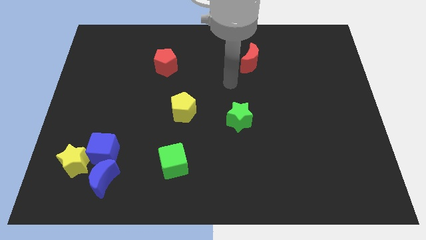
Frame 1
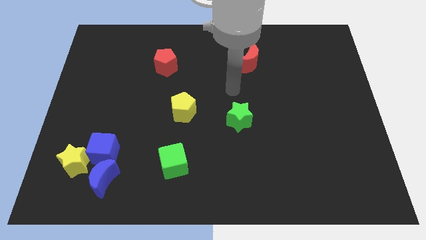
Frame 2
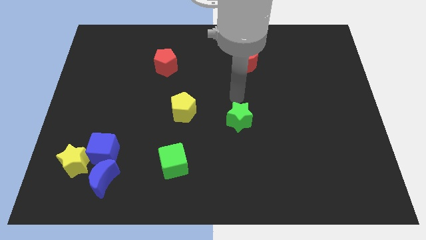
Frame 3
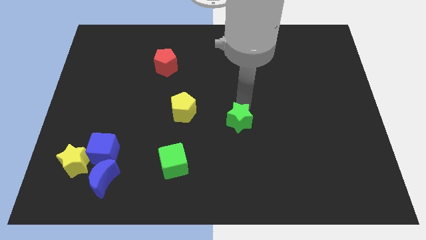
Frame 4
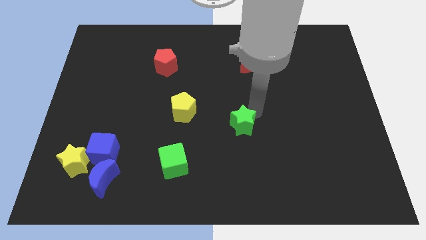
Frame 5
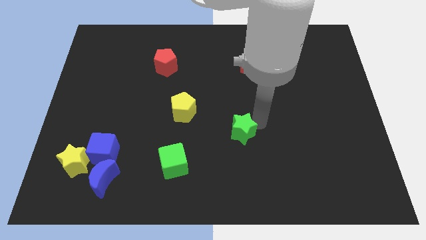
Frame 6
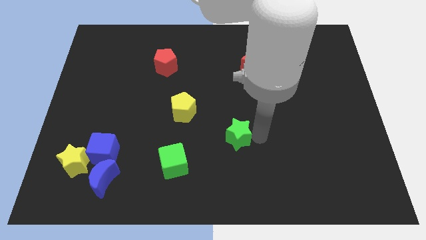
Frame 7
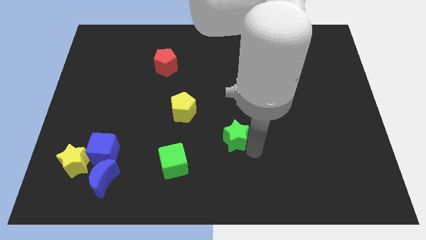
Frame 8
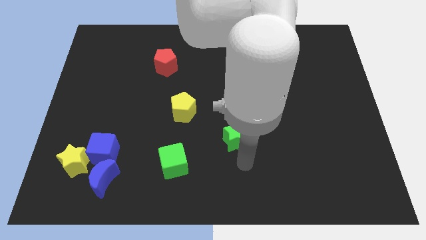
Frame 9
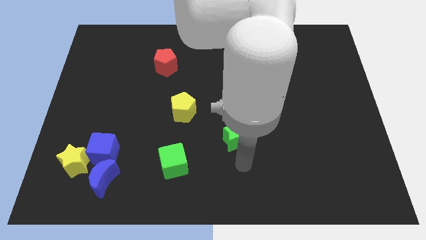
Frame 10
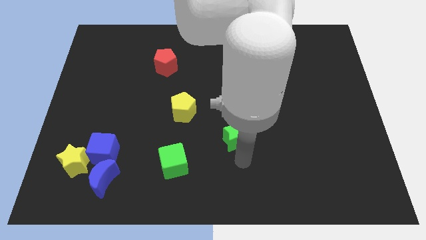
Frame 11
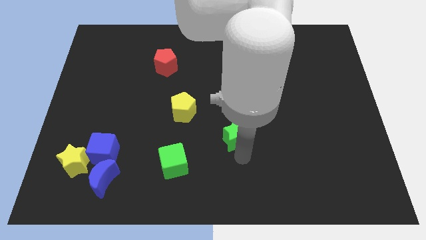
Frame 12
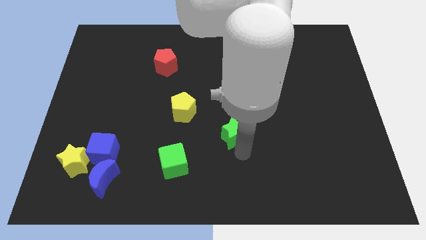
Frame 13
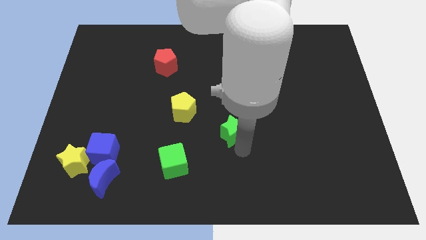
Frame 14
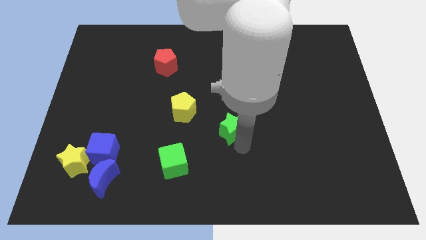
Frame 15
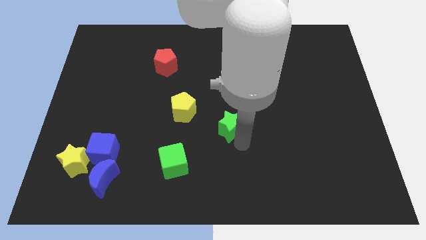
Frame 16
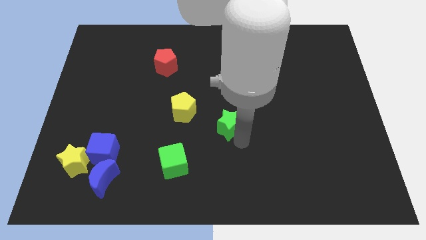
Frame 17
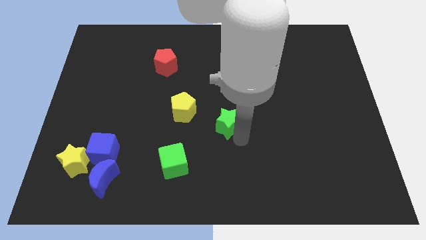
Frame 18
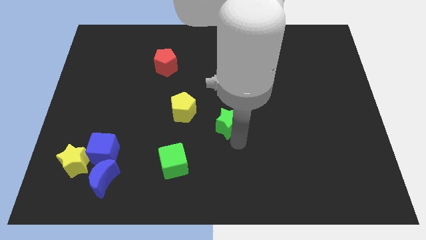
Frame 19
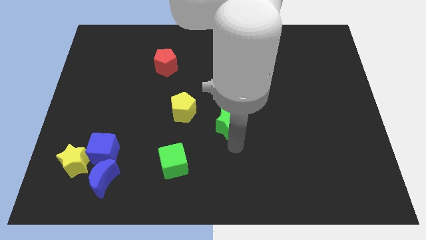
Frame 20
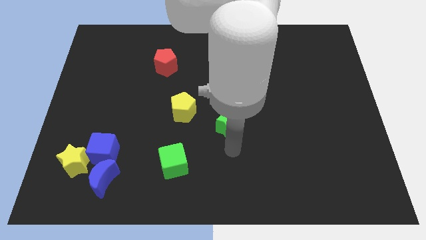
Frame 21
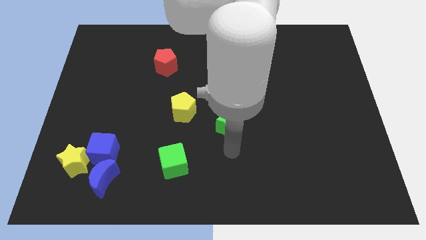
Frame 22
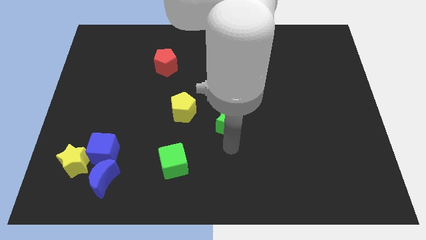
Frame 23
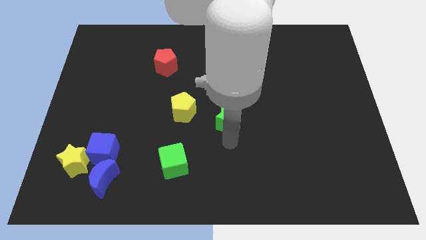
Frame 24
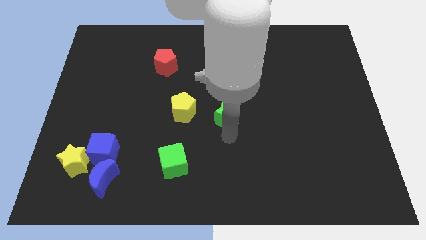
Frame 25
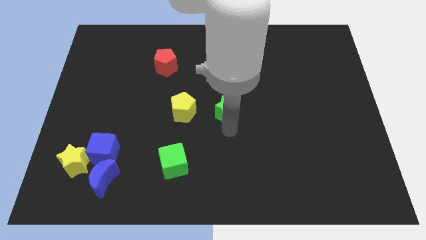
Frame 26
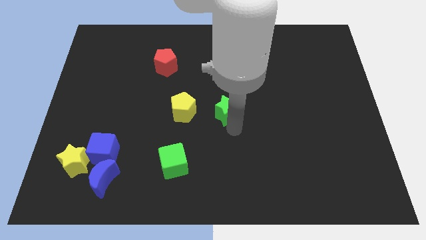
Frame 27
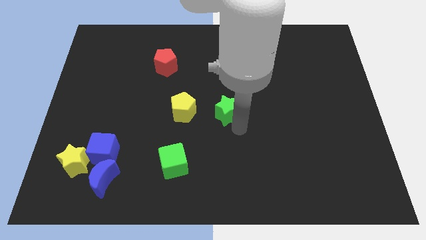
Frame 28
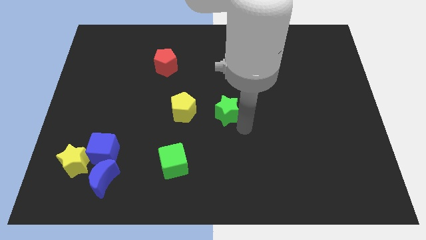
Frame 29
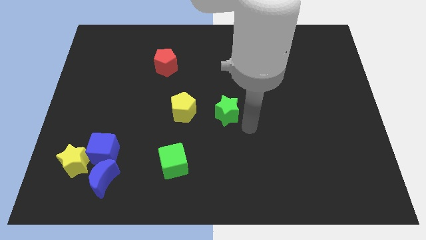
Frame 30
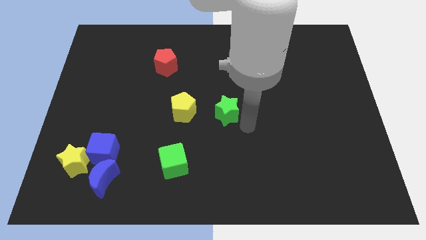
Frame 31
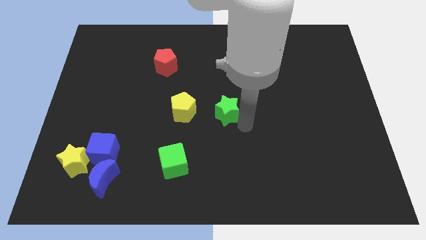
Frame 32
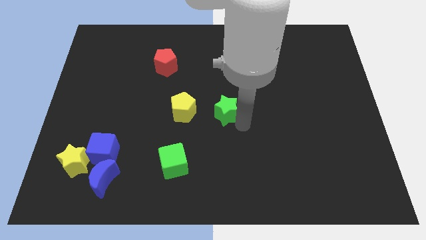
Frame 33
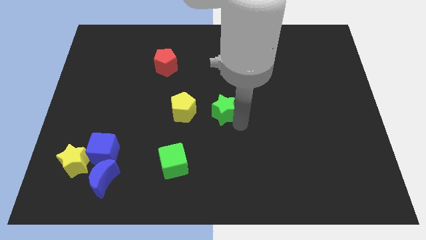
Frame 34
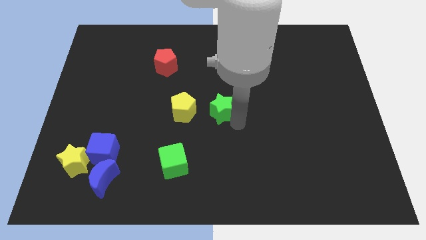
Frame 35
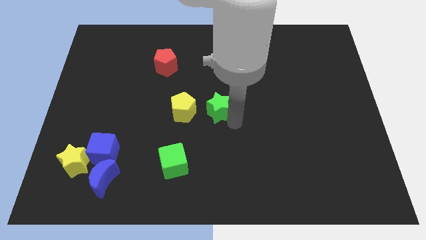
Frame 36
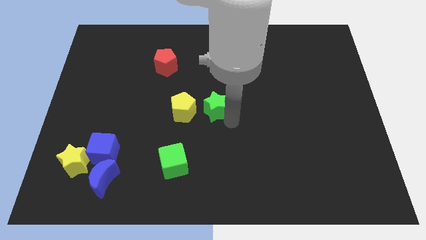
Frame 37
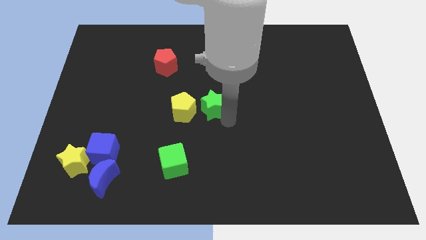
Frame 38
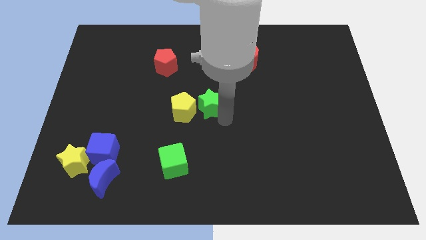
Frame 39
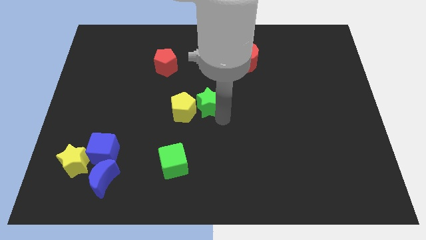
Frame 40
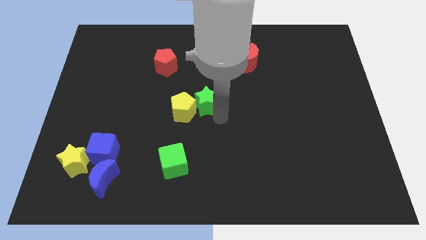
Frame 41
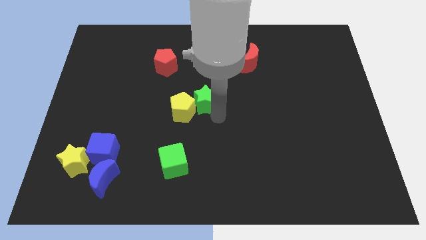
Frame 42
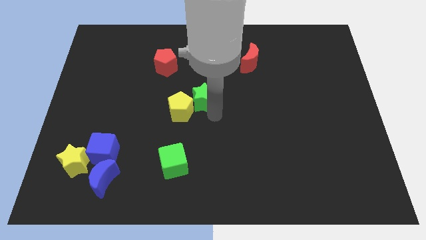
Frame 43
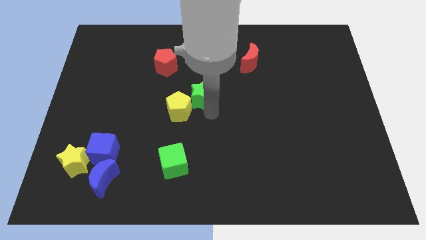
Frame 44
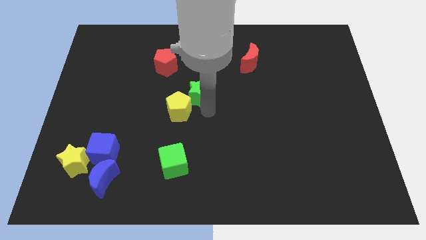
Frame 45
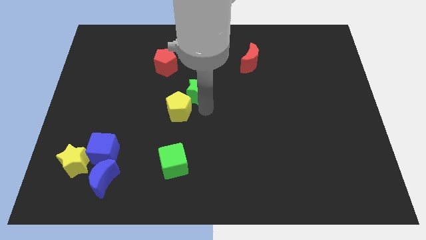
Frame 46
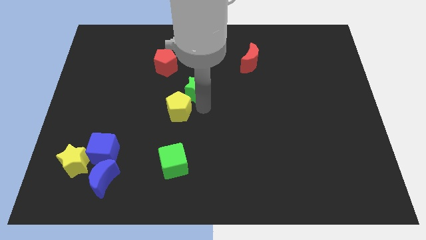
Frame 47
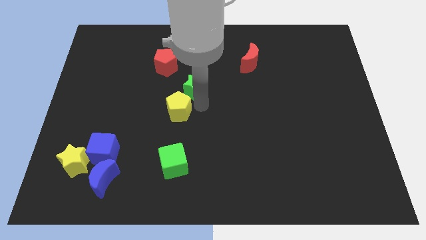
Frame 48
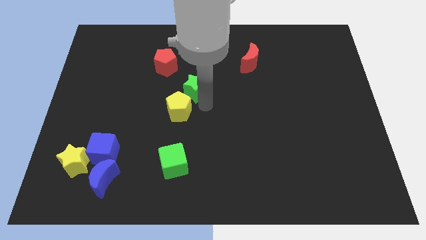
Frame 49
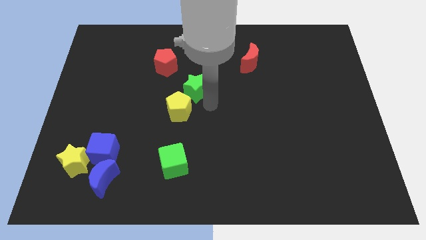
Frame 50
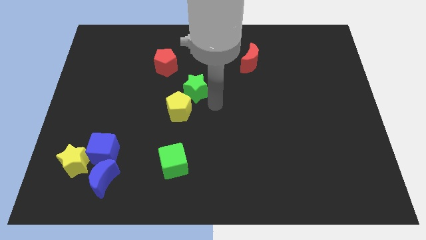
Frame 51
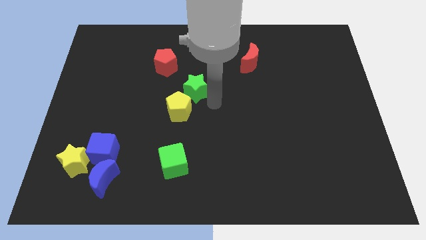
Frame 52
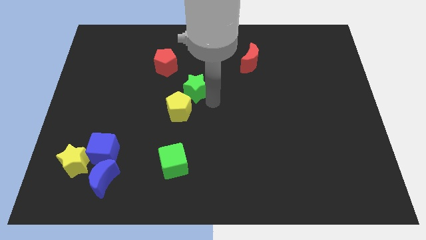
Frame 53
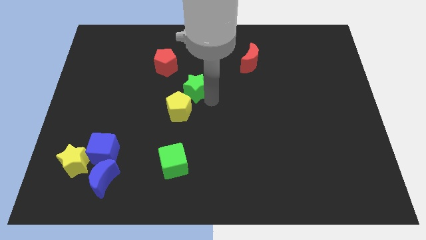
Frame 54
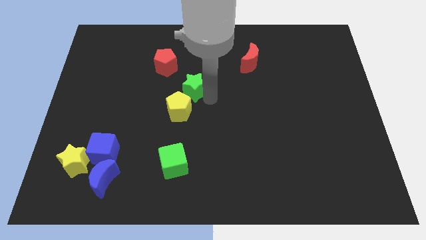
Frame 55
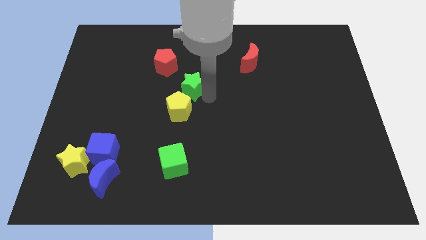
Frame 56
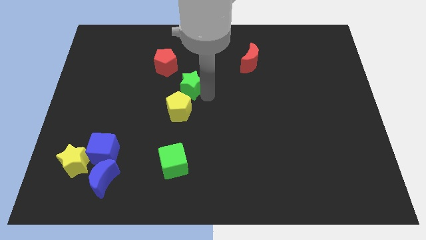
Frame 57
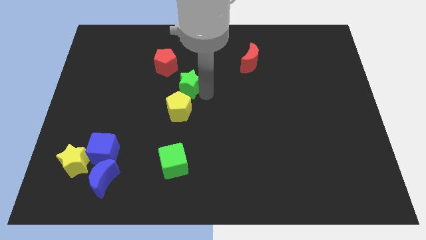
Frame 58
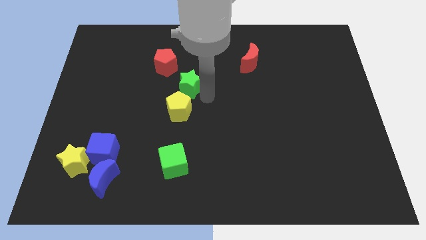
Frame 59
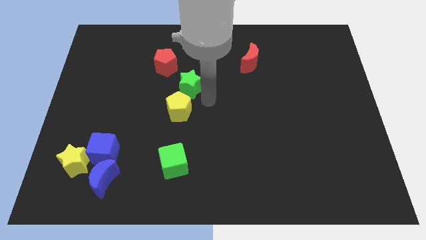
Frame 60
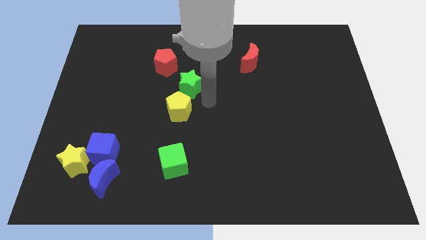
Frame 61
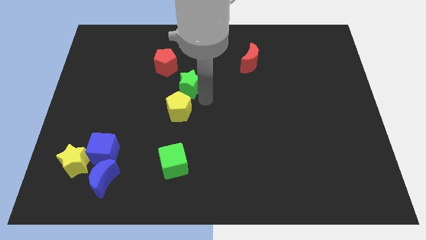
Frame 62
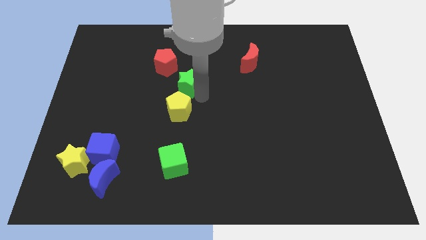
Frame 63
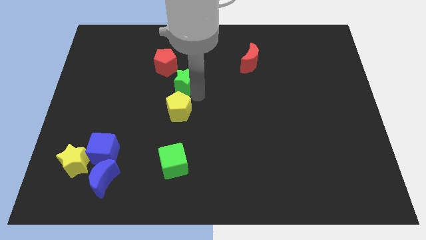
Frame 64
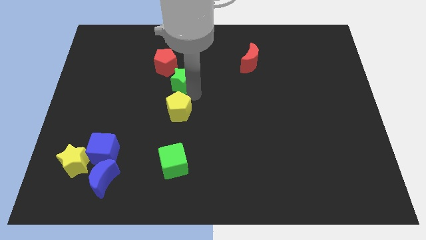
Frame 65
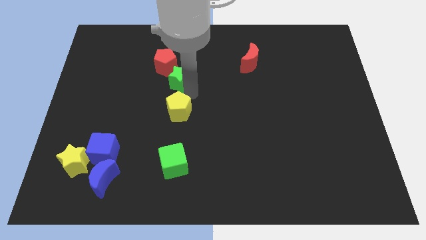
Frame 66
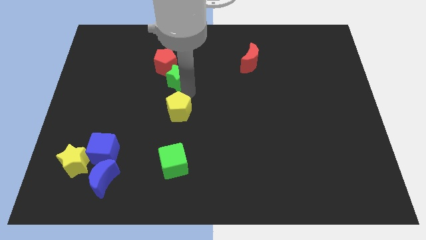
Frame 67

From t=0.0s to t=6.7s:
push the green star close to the red pentagon

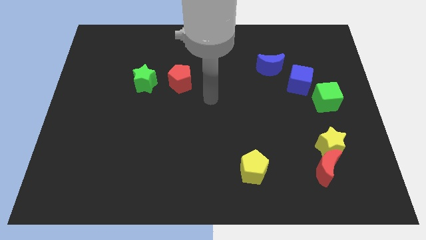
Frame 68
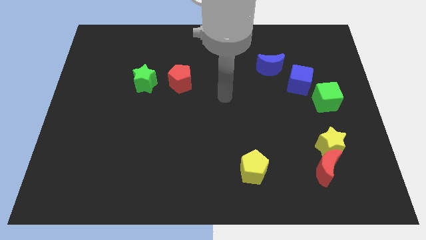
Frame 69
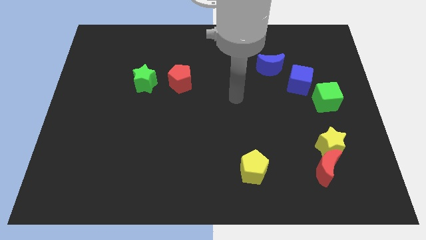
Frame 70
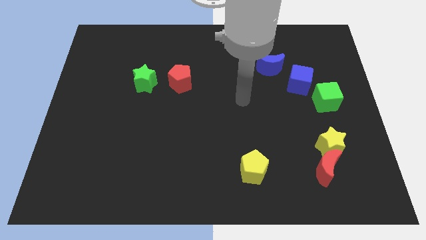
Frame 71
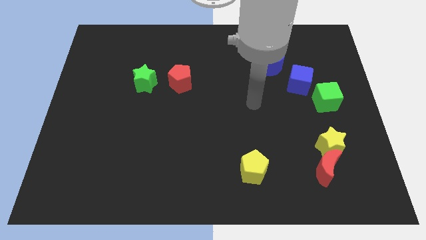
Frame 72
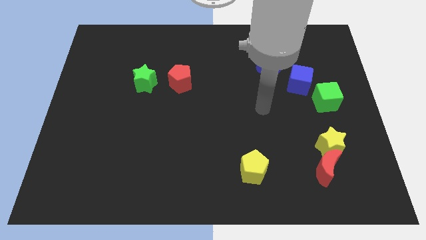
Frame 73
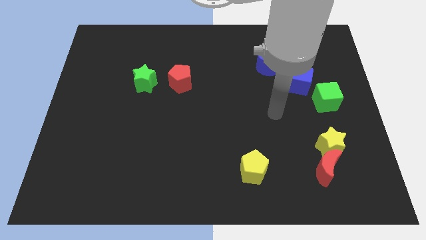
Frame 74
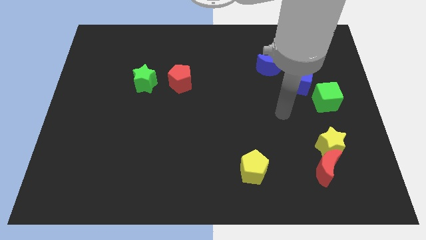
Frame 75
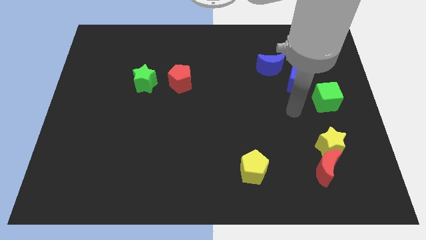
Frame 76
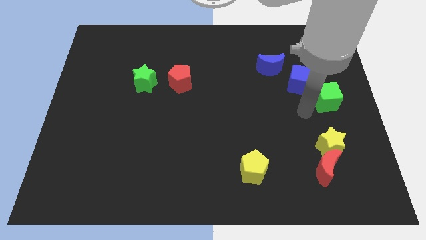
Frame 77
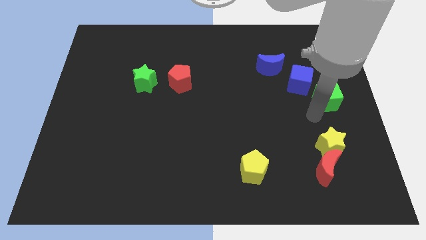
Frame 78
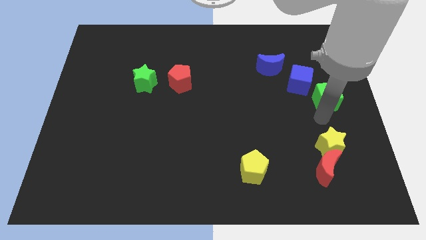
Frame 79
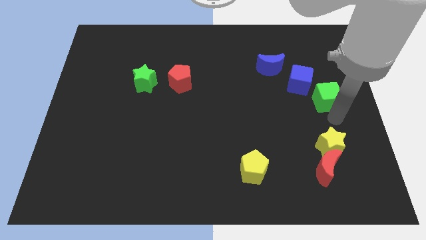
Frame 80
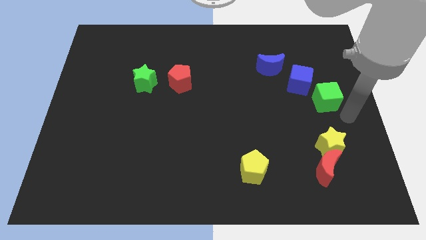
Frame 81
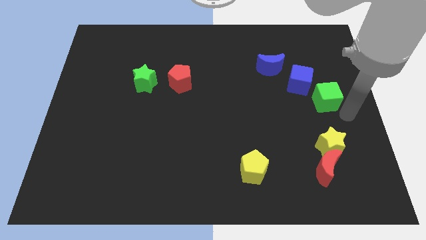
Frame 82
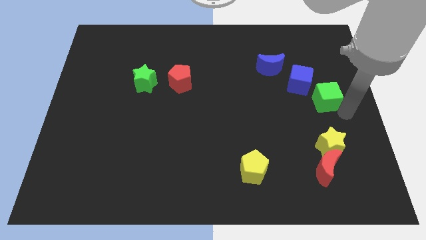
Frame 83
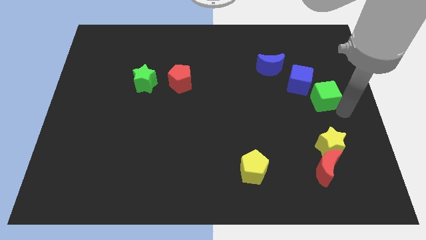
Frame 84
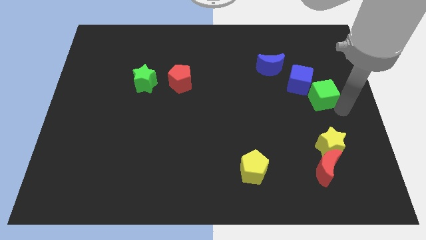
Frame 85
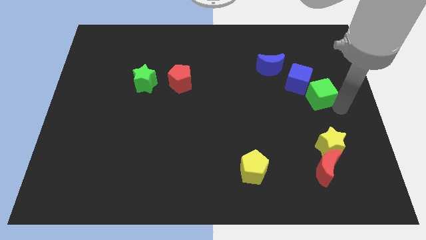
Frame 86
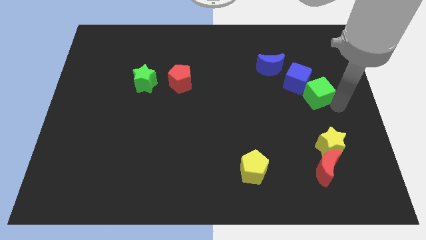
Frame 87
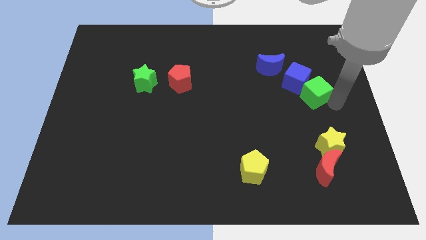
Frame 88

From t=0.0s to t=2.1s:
put the green cube close to the blue cube
